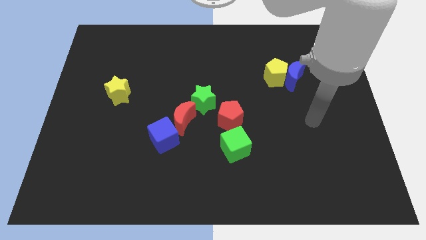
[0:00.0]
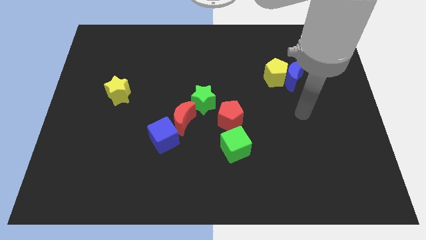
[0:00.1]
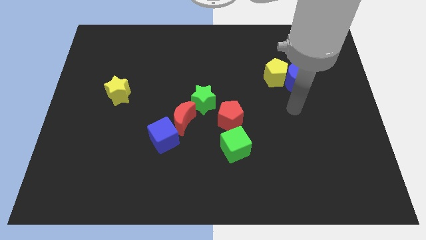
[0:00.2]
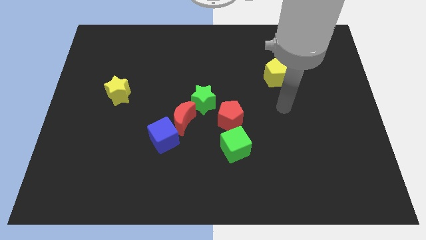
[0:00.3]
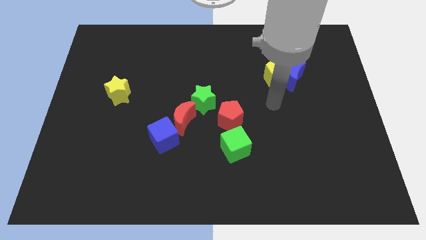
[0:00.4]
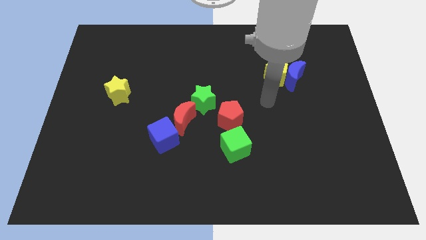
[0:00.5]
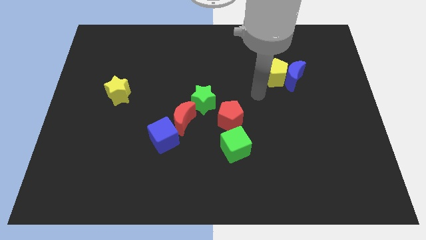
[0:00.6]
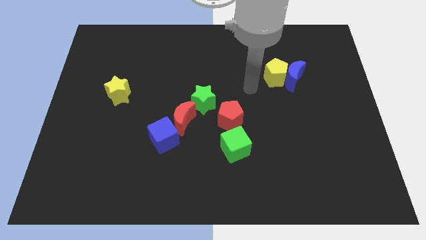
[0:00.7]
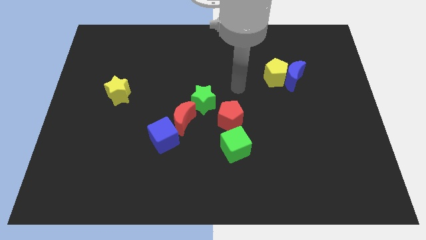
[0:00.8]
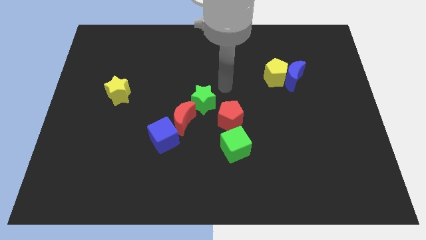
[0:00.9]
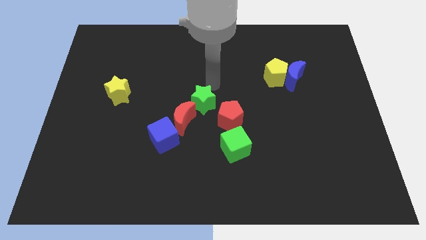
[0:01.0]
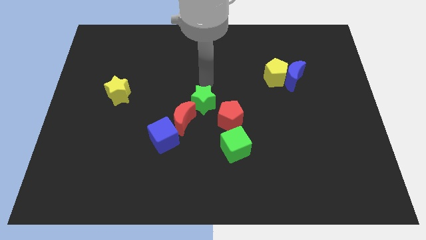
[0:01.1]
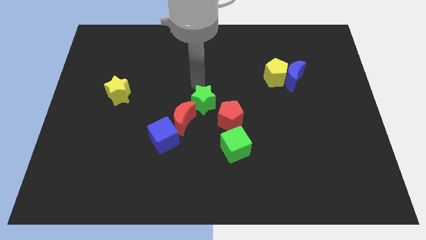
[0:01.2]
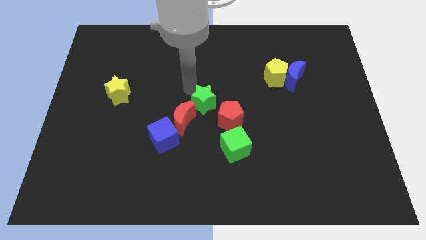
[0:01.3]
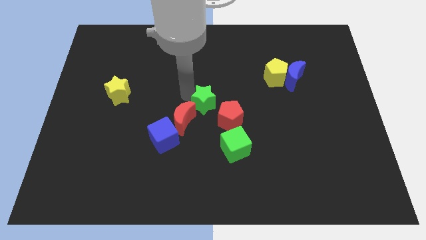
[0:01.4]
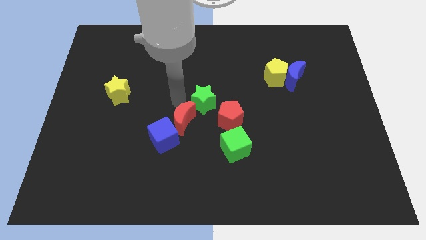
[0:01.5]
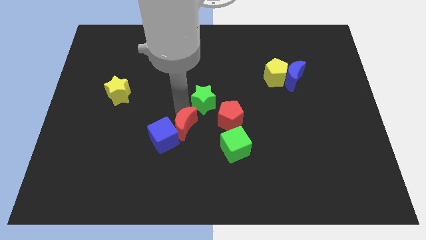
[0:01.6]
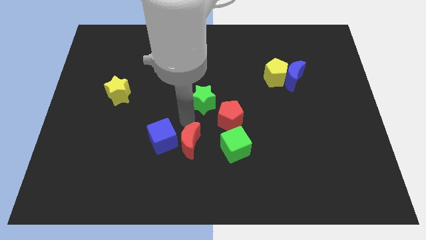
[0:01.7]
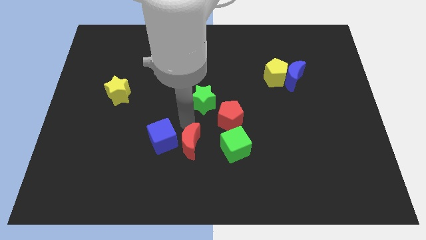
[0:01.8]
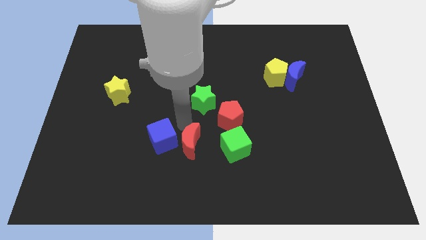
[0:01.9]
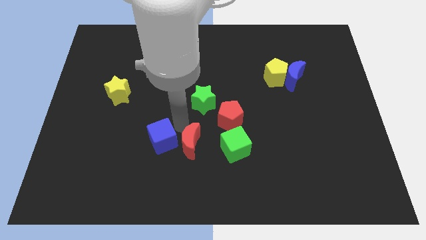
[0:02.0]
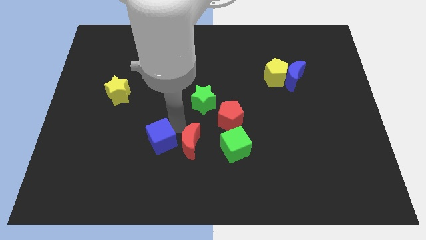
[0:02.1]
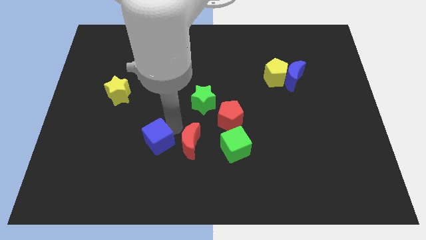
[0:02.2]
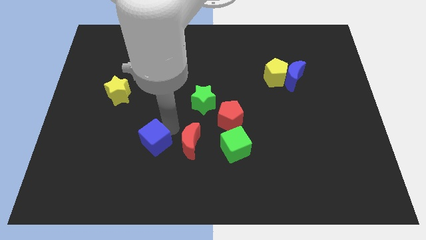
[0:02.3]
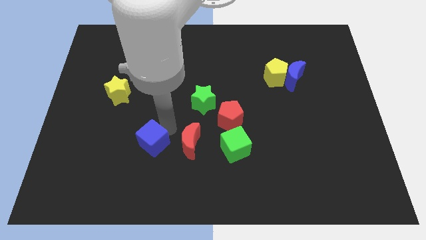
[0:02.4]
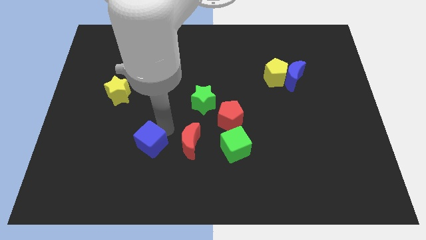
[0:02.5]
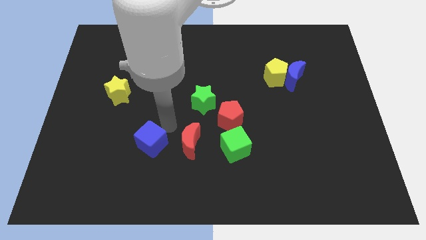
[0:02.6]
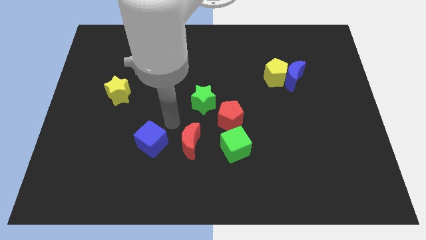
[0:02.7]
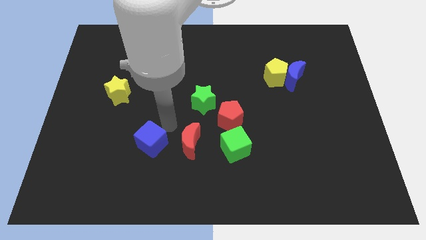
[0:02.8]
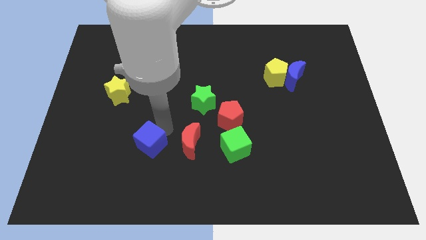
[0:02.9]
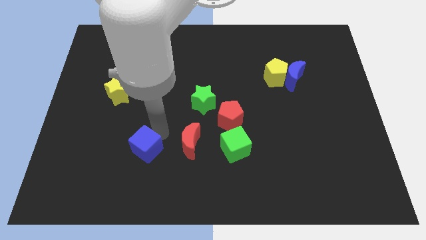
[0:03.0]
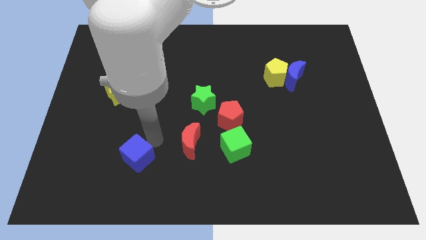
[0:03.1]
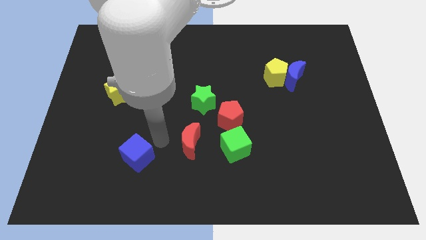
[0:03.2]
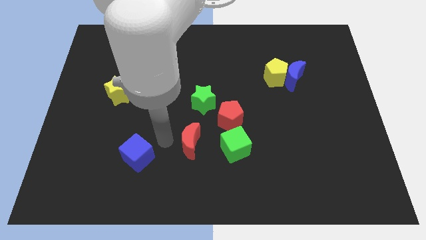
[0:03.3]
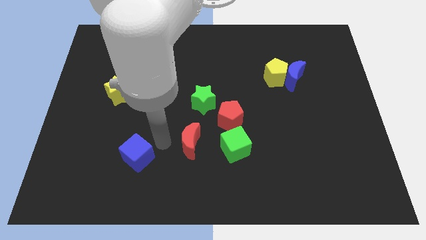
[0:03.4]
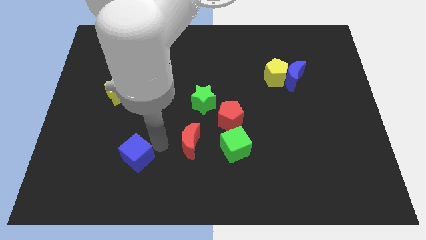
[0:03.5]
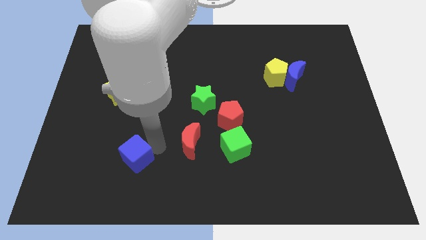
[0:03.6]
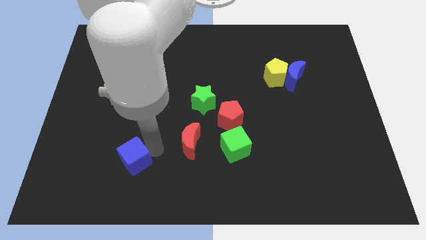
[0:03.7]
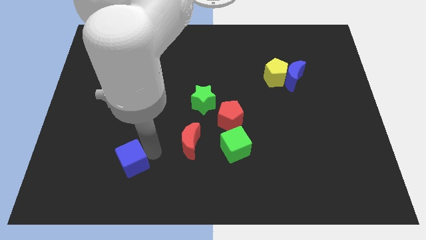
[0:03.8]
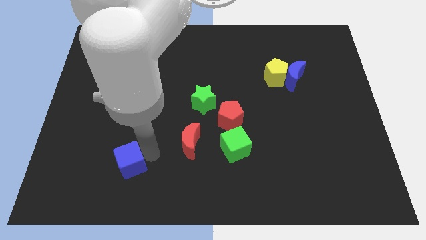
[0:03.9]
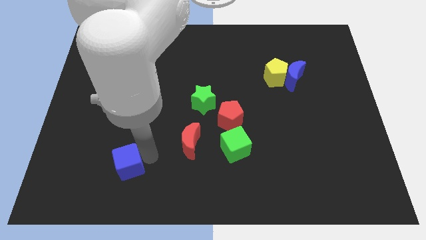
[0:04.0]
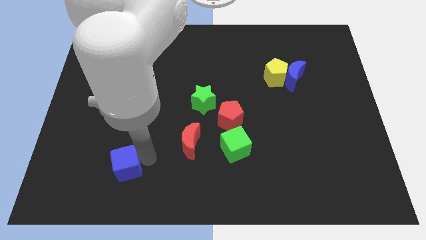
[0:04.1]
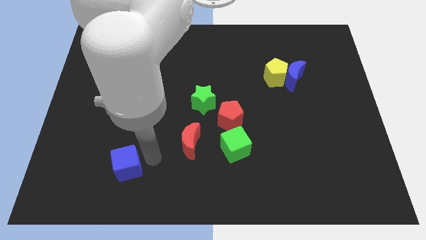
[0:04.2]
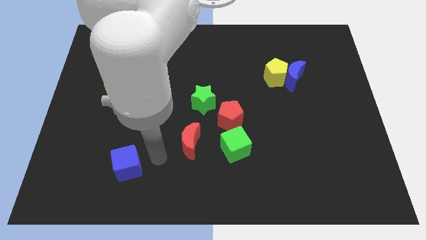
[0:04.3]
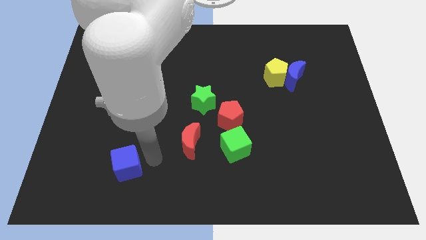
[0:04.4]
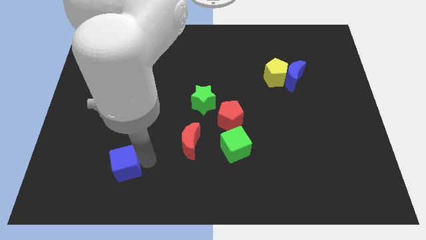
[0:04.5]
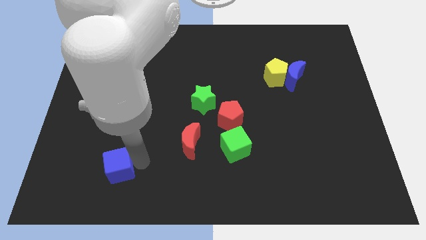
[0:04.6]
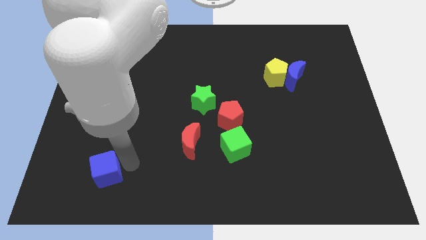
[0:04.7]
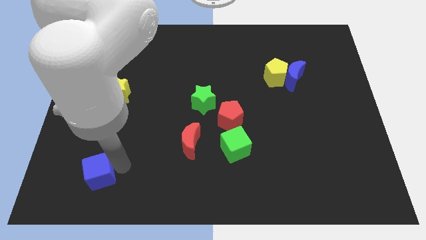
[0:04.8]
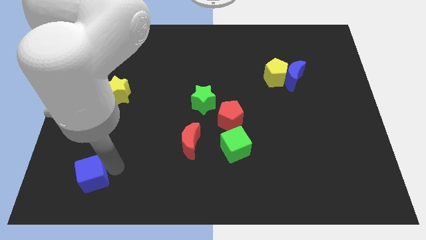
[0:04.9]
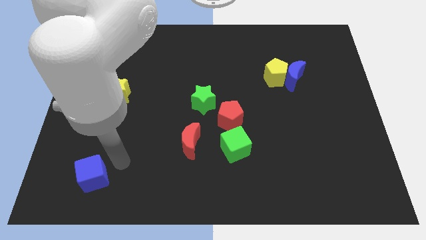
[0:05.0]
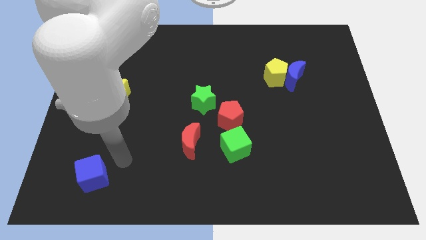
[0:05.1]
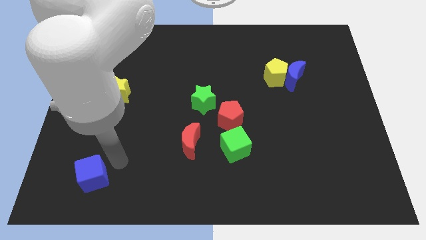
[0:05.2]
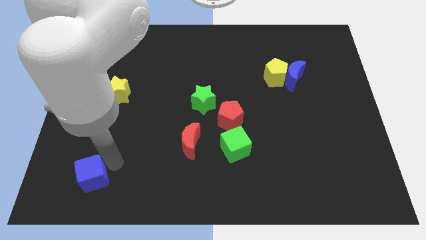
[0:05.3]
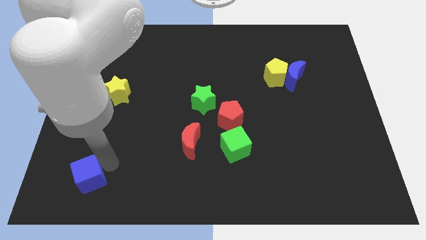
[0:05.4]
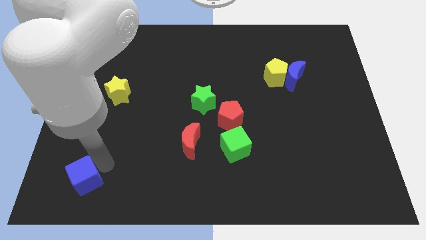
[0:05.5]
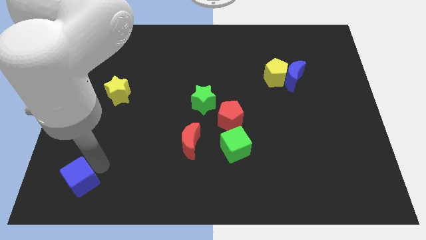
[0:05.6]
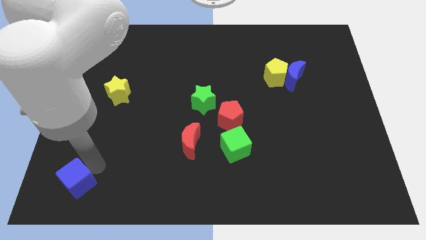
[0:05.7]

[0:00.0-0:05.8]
move the blue cube to the lower left corner

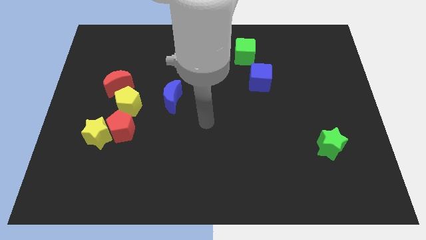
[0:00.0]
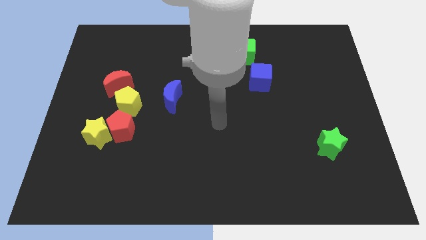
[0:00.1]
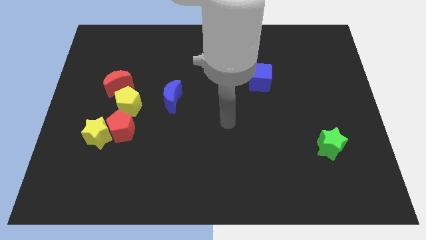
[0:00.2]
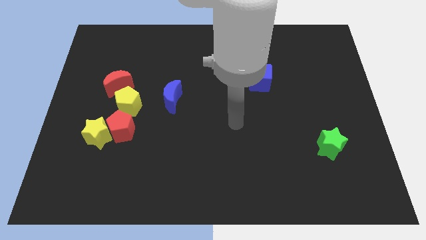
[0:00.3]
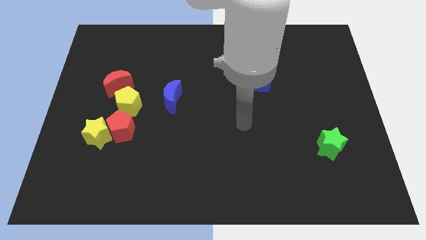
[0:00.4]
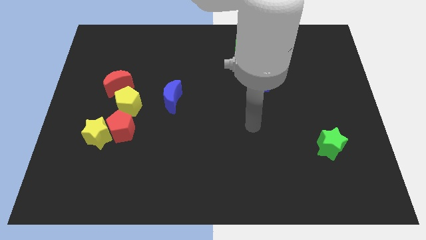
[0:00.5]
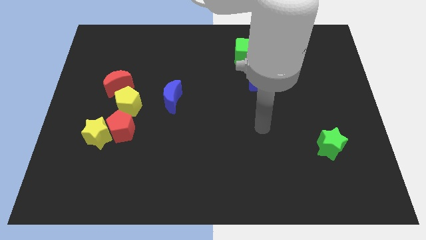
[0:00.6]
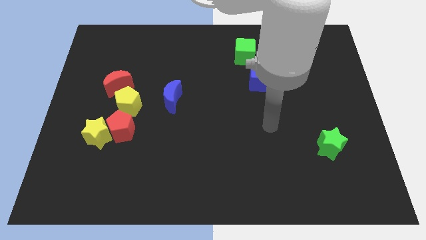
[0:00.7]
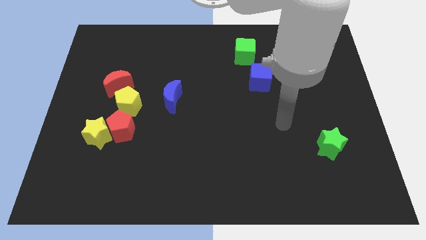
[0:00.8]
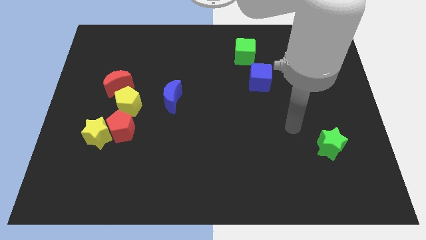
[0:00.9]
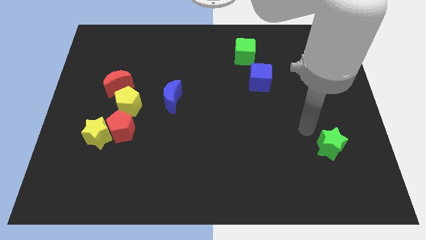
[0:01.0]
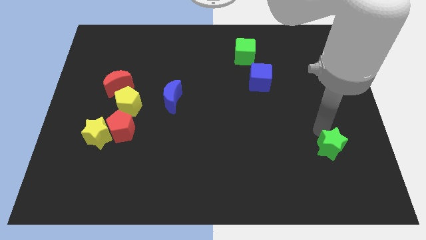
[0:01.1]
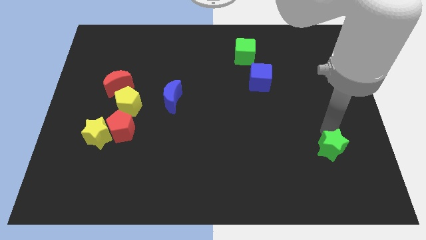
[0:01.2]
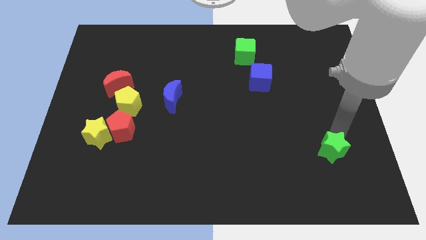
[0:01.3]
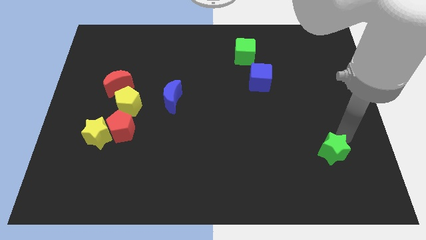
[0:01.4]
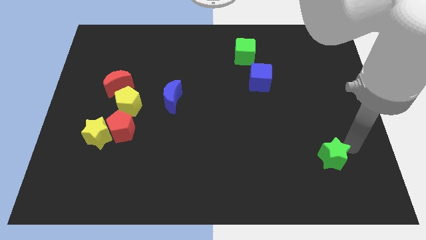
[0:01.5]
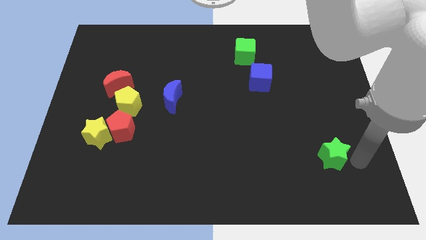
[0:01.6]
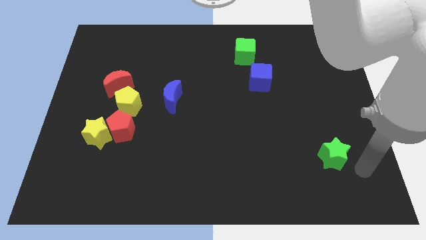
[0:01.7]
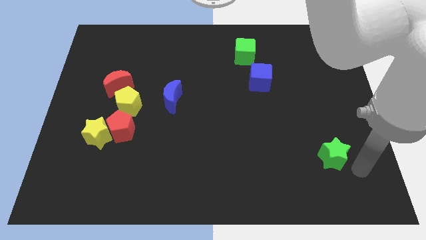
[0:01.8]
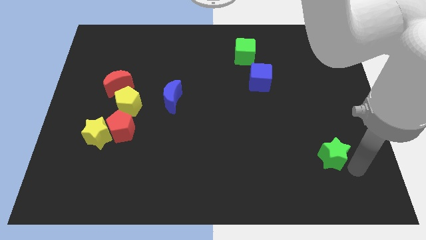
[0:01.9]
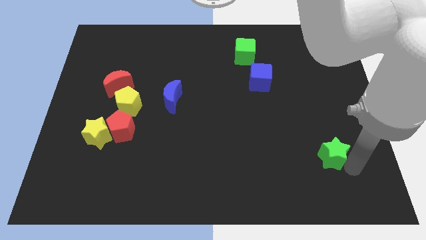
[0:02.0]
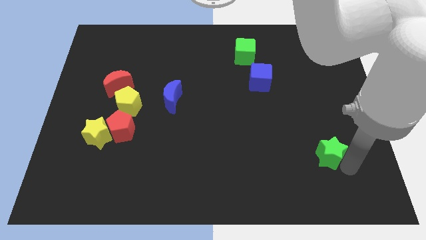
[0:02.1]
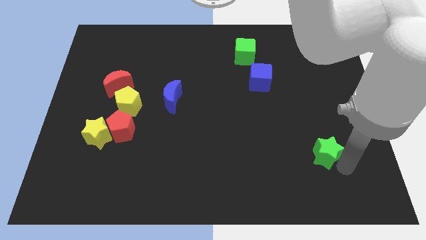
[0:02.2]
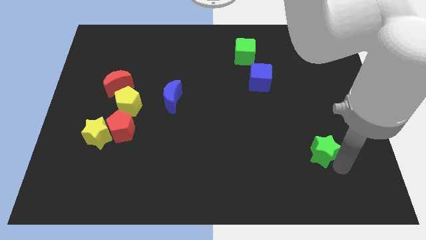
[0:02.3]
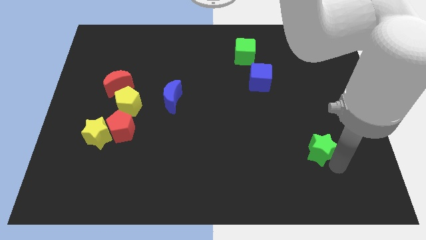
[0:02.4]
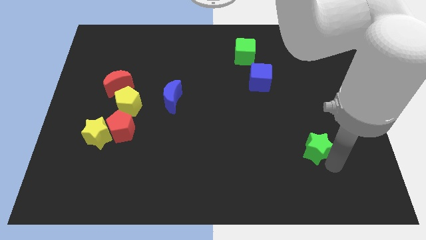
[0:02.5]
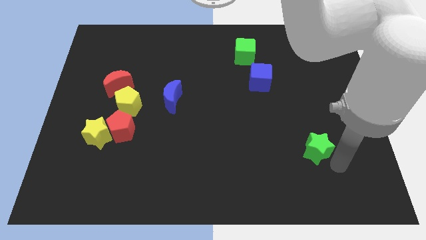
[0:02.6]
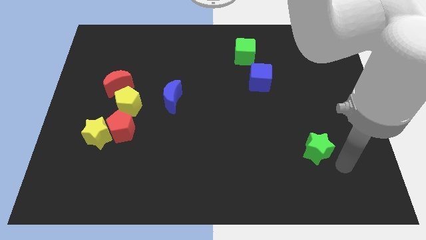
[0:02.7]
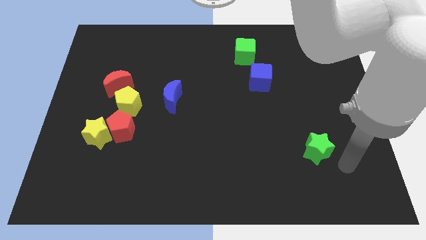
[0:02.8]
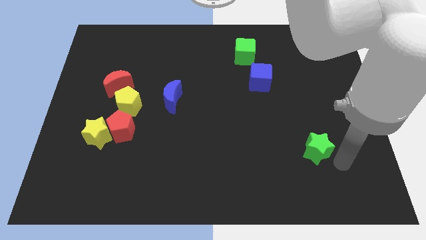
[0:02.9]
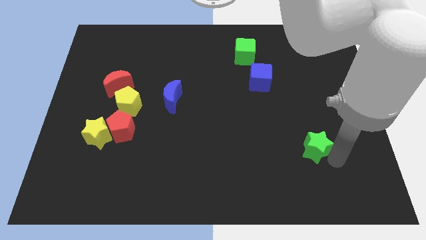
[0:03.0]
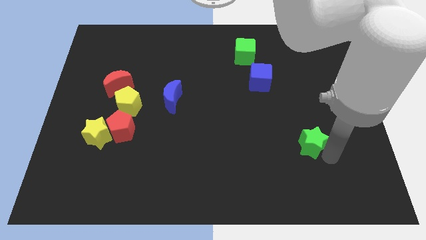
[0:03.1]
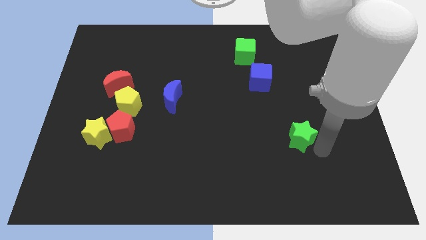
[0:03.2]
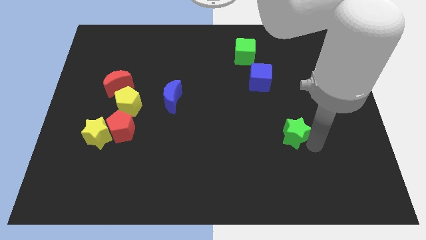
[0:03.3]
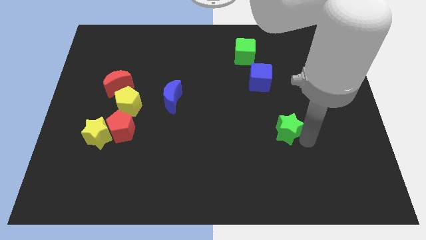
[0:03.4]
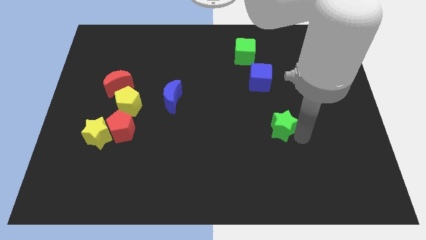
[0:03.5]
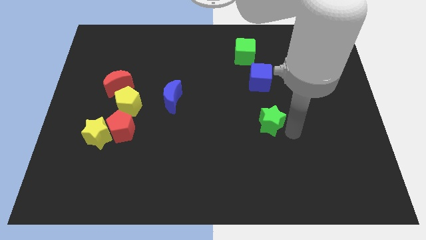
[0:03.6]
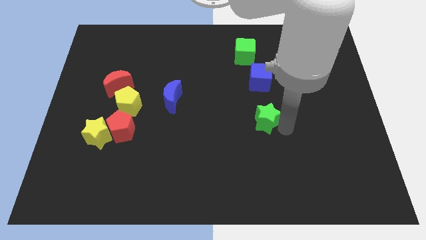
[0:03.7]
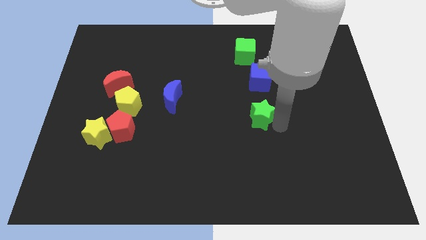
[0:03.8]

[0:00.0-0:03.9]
move the green star to the middle of the board
